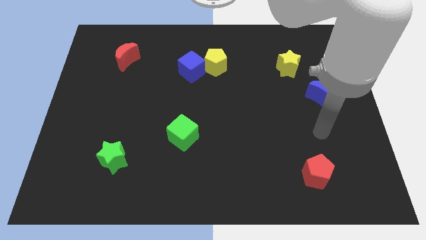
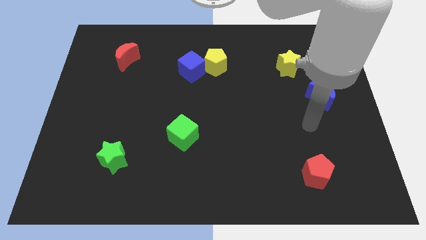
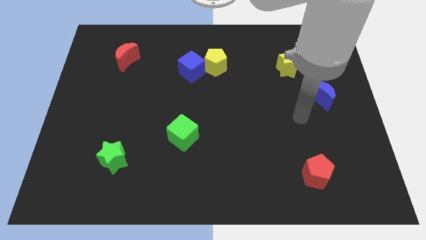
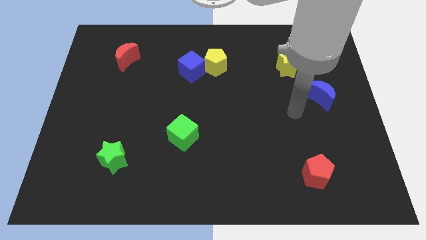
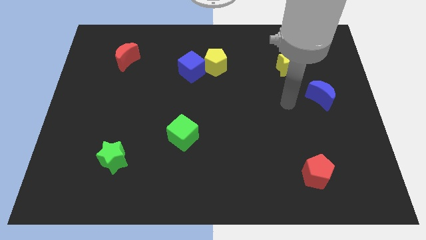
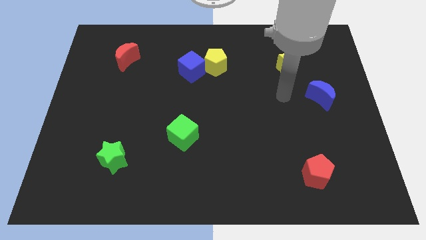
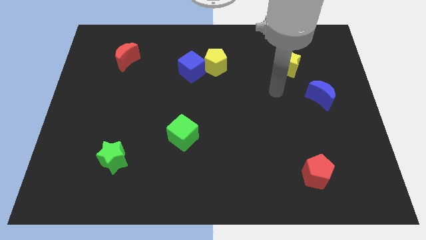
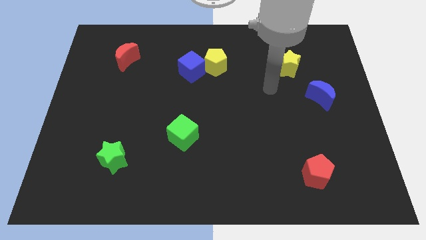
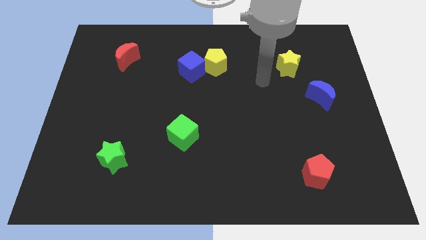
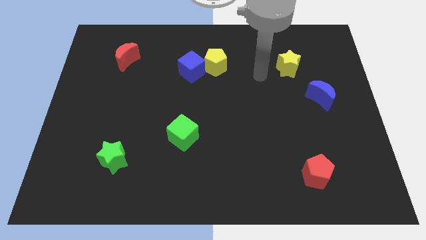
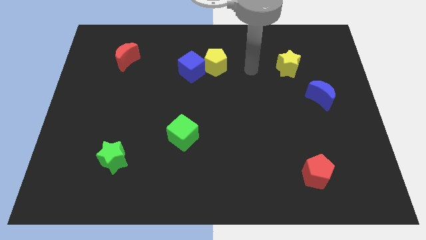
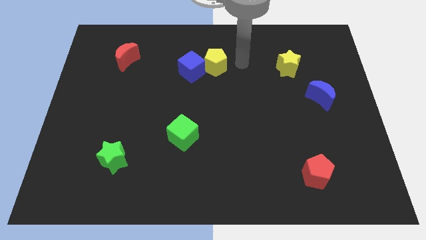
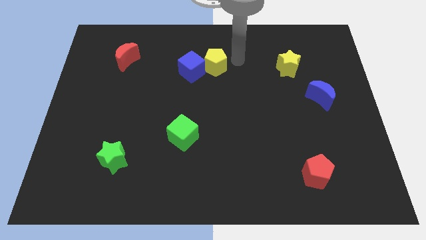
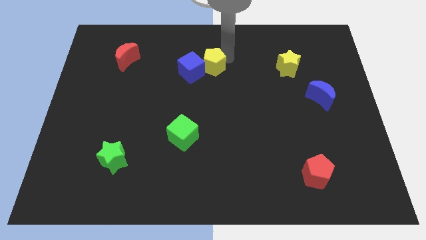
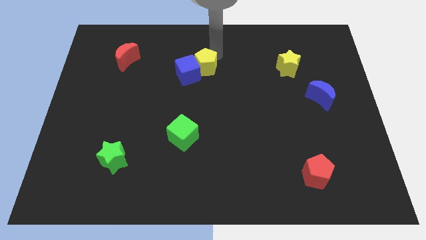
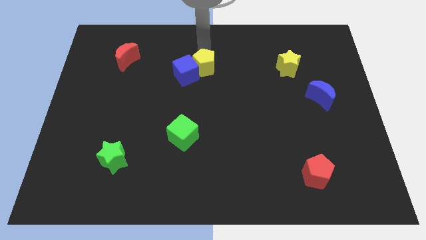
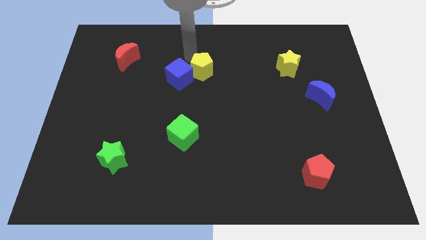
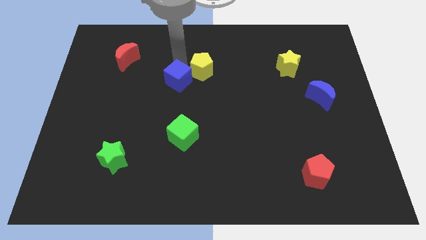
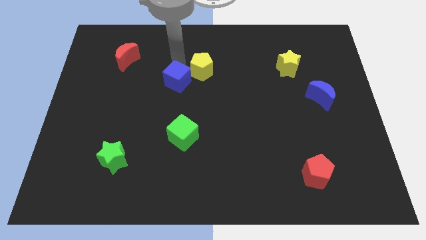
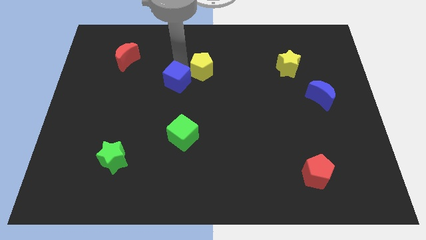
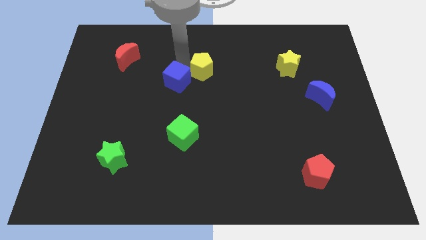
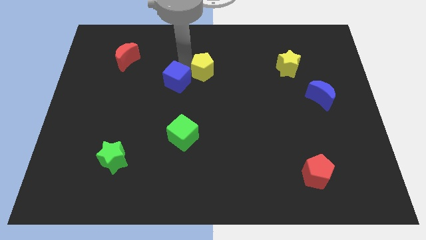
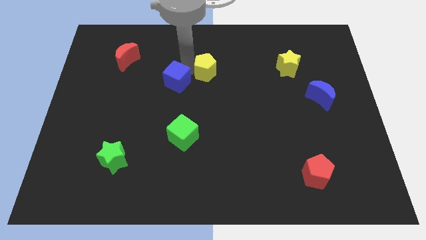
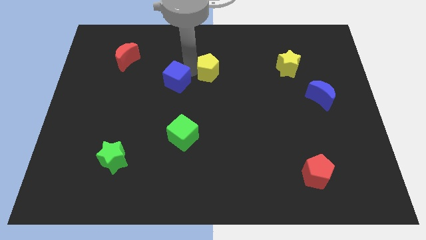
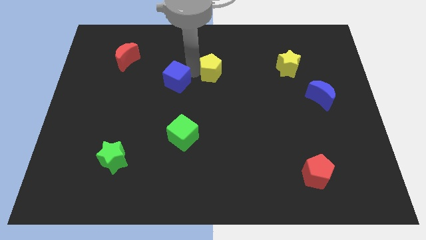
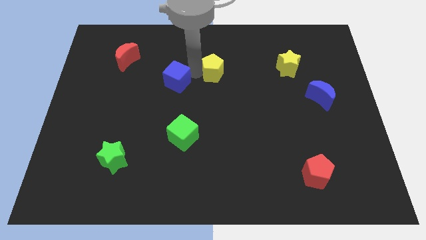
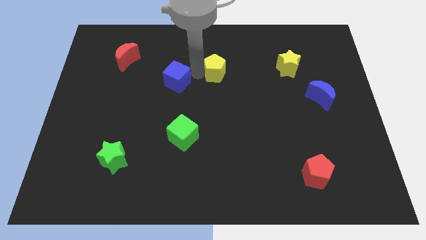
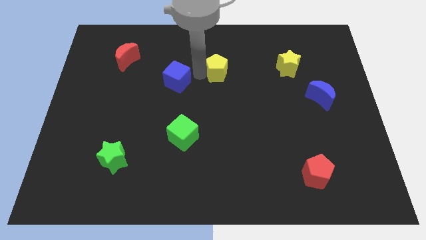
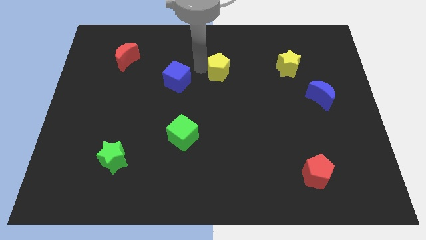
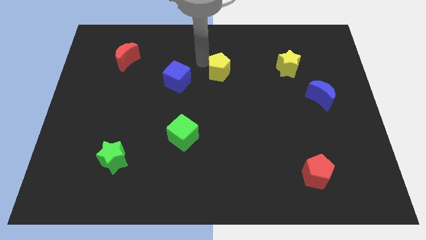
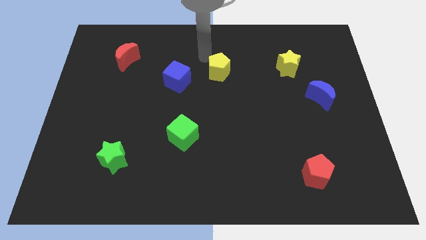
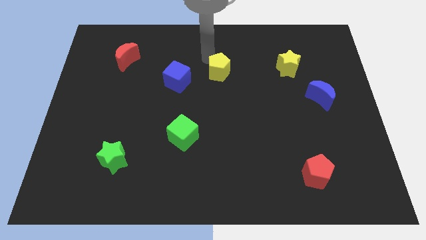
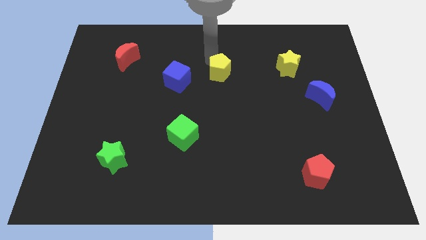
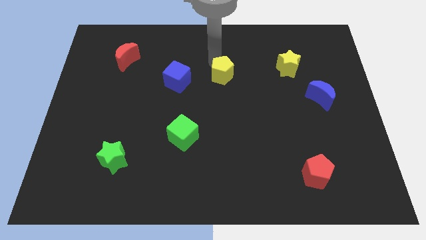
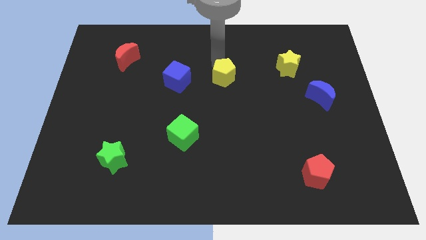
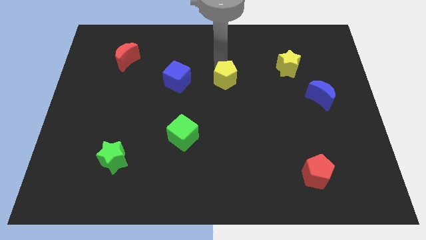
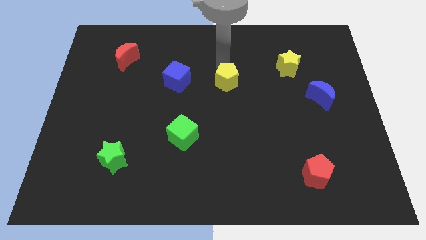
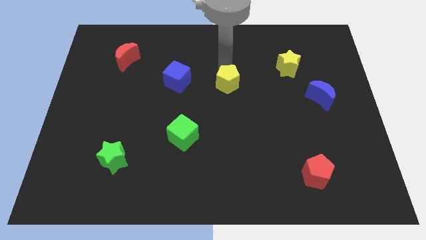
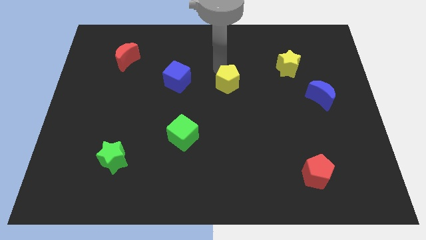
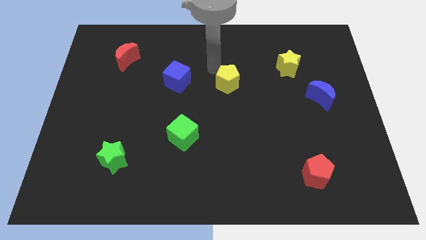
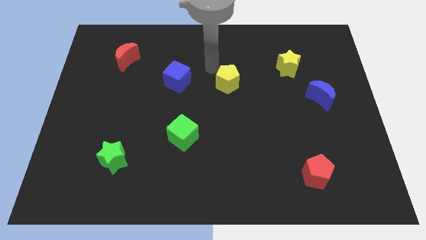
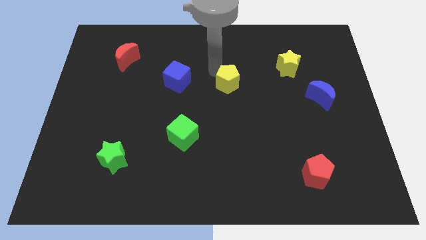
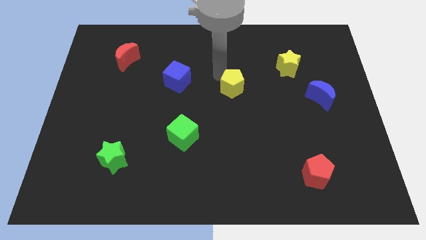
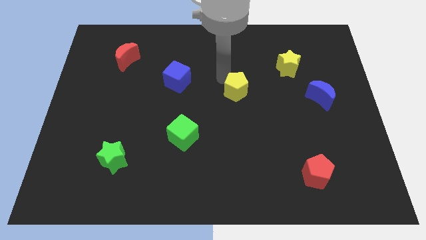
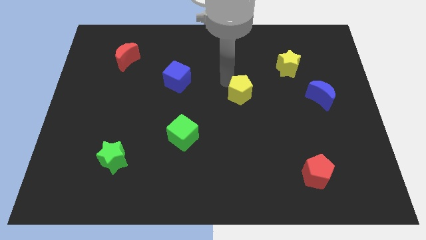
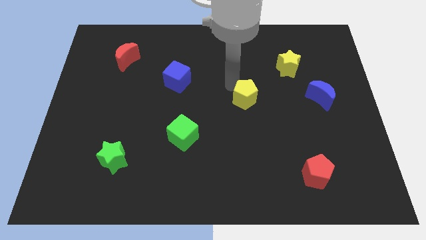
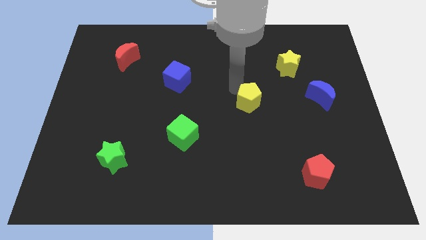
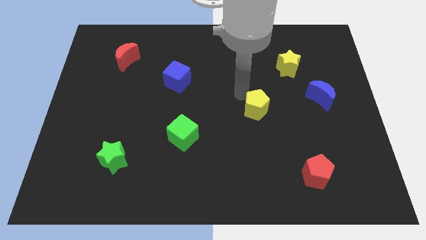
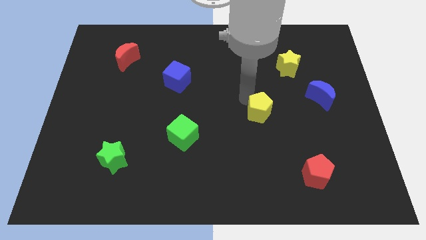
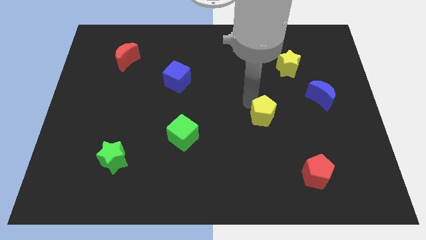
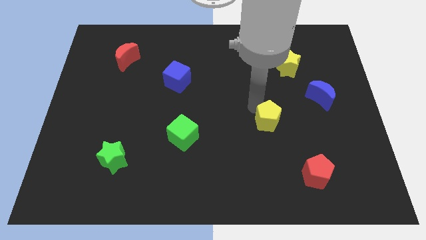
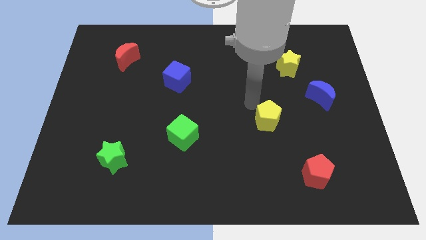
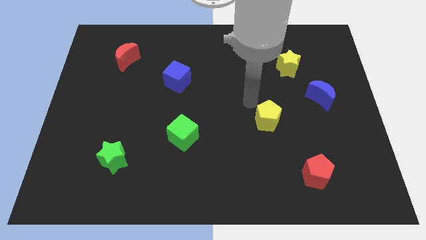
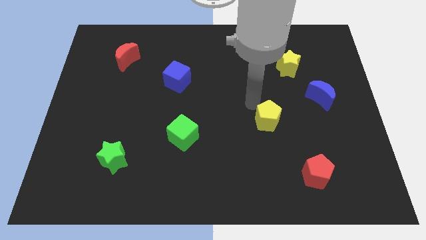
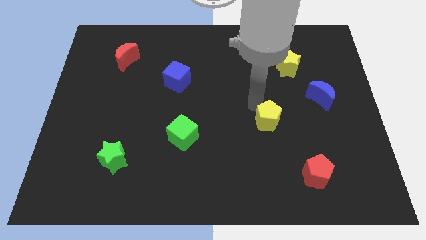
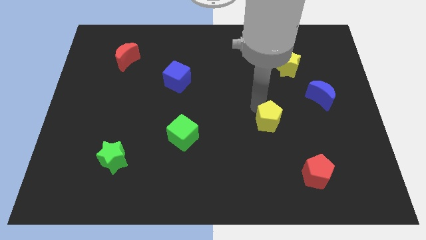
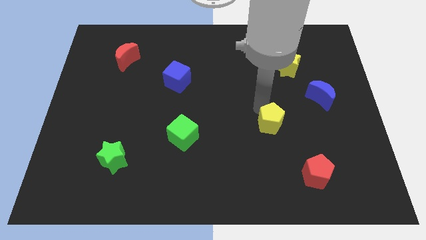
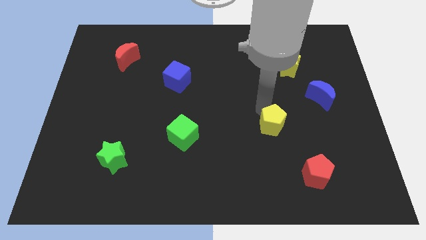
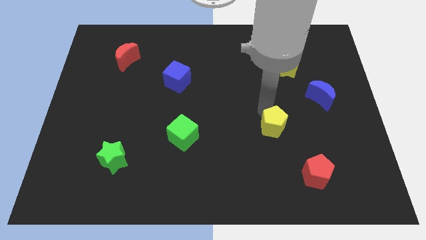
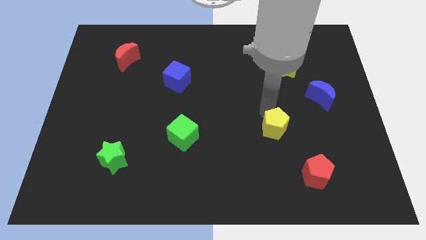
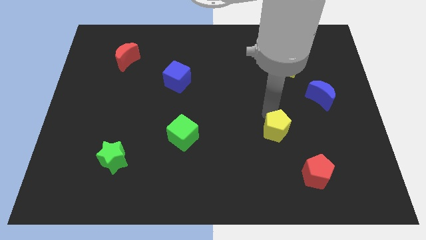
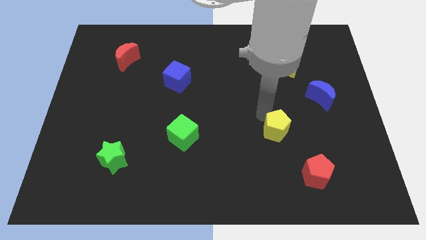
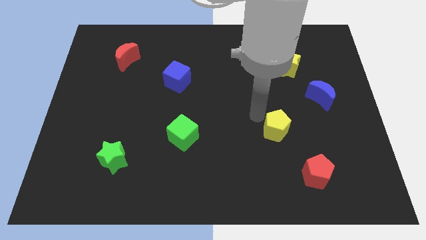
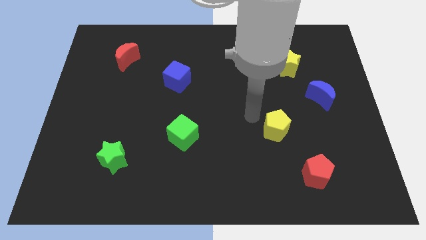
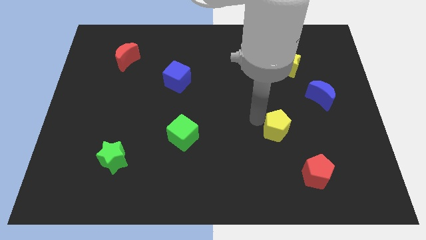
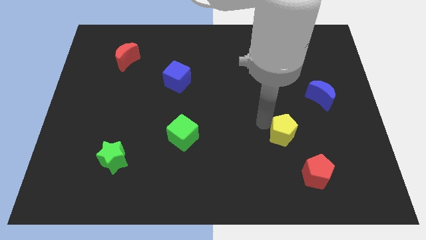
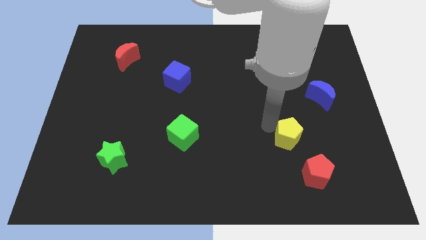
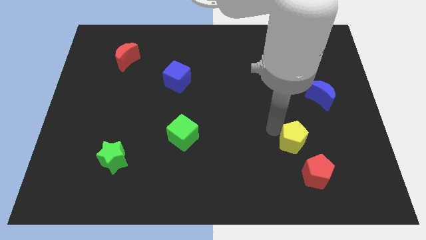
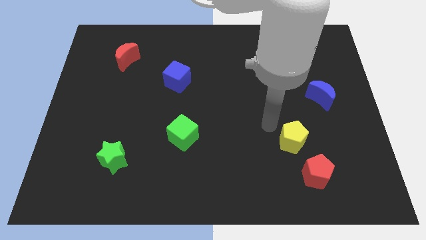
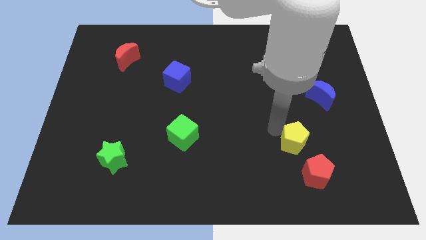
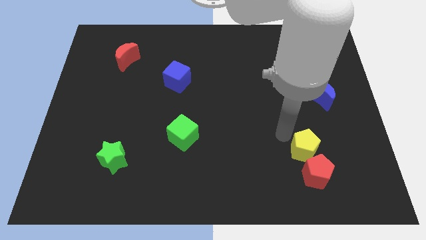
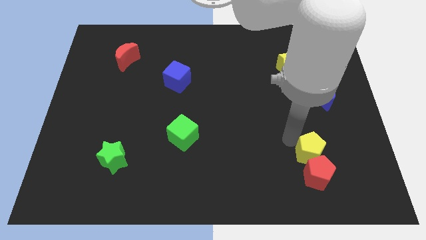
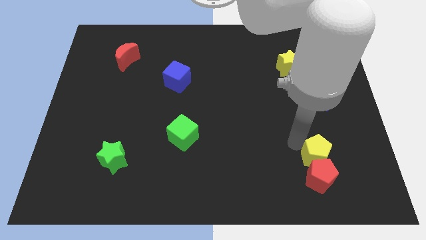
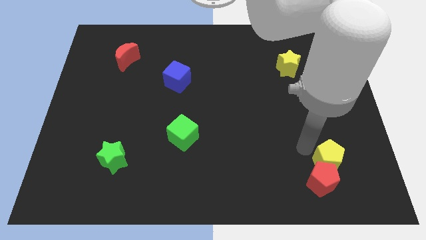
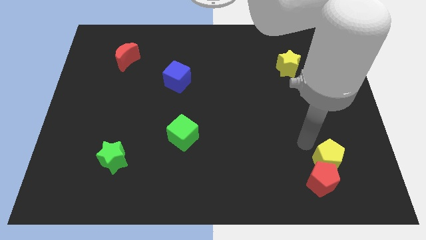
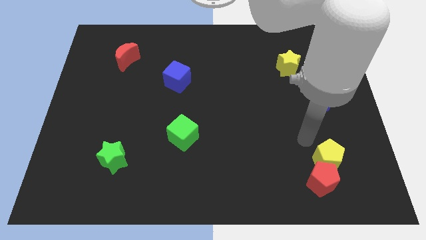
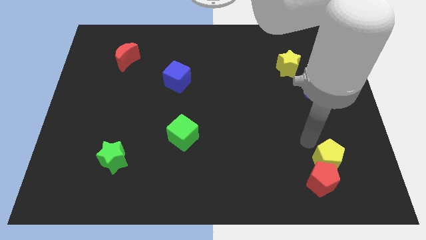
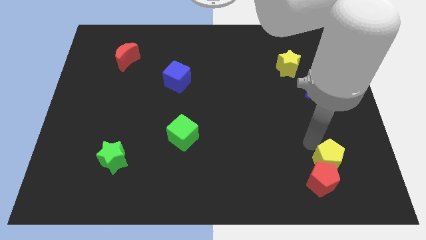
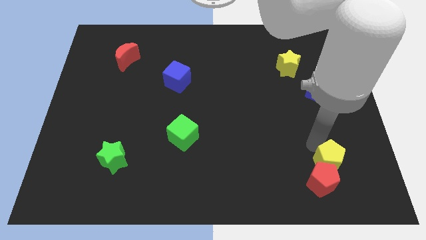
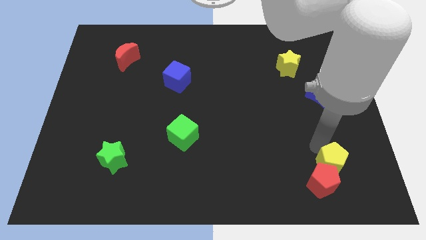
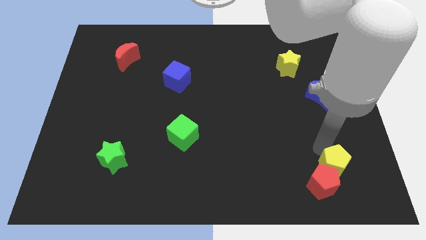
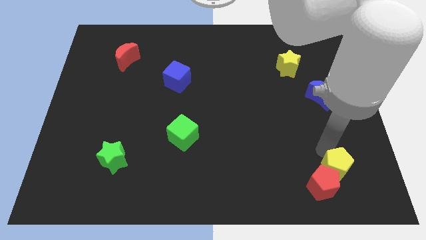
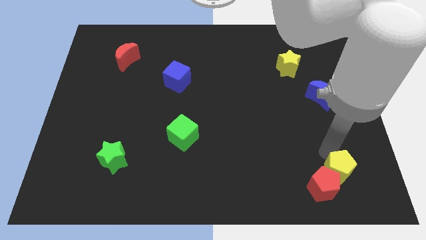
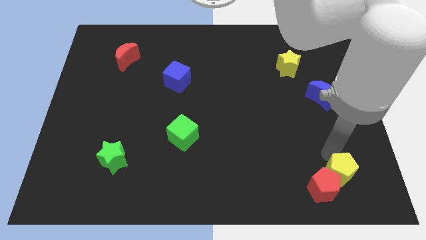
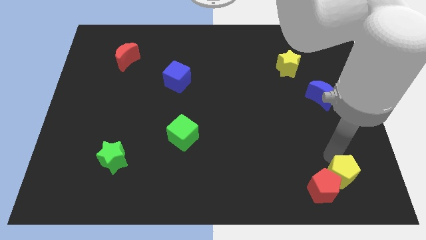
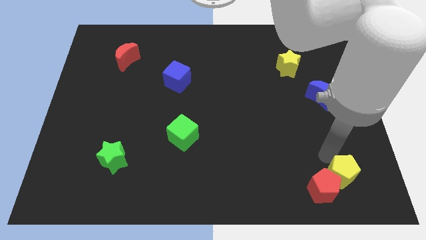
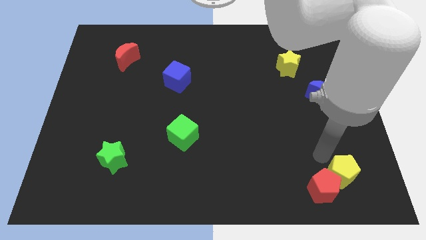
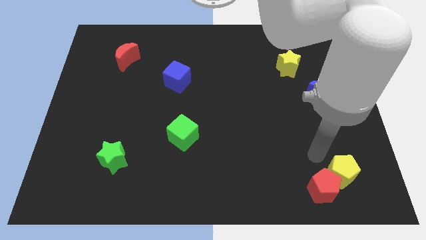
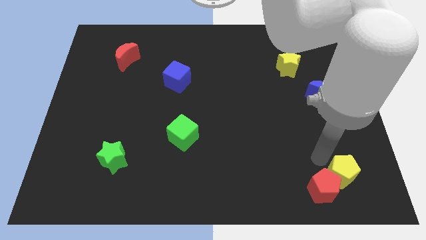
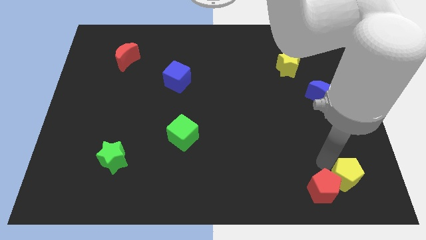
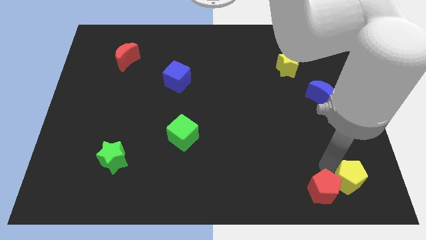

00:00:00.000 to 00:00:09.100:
put the yellow pentagon to the bottom right corner
